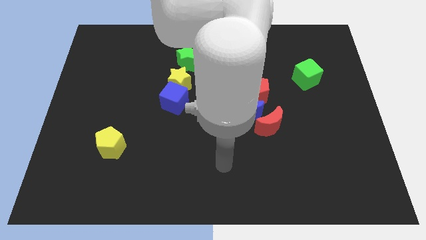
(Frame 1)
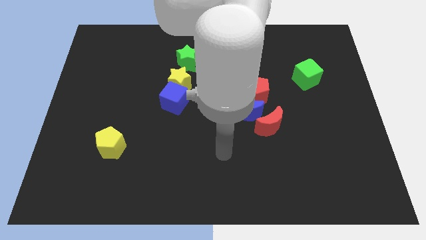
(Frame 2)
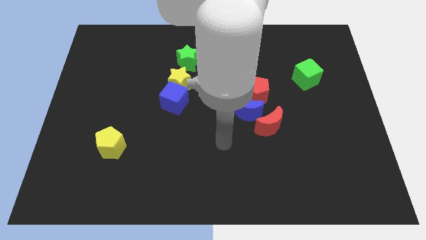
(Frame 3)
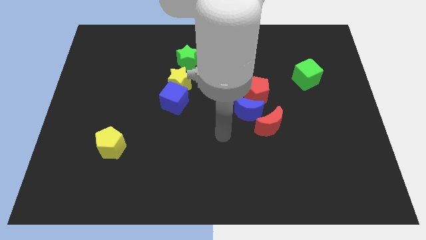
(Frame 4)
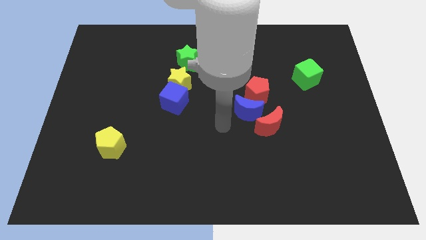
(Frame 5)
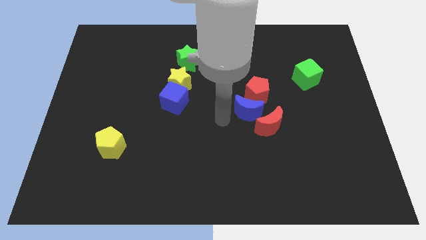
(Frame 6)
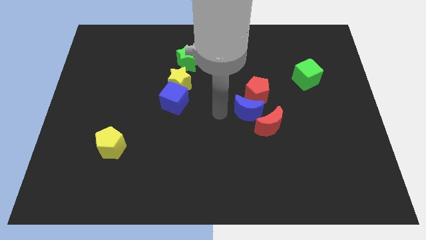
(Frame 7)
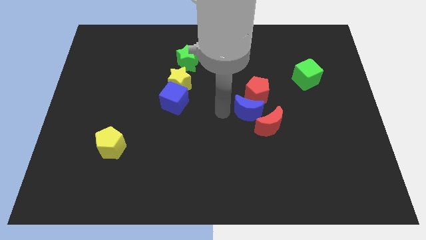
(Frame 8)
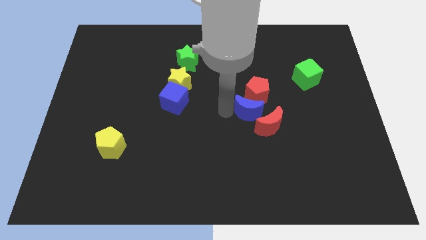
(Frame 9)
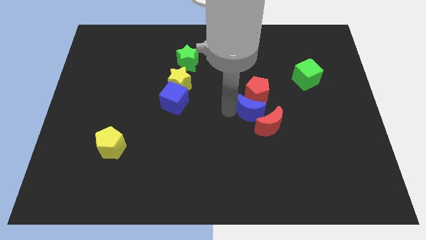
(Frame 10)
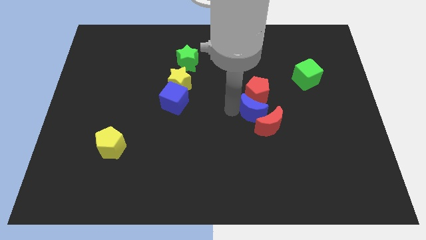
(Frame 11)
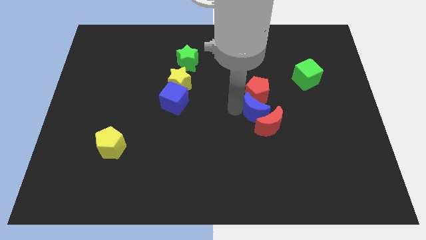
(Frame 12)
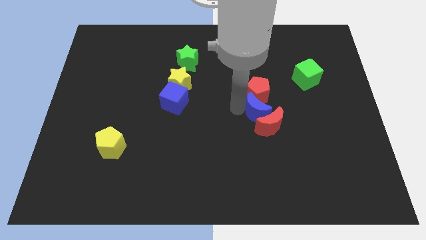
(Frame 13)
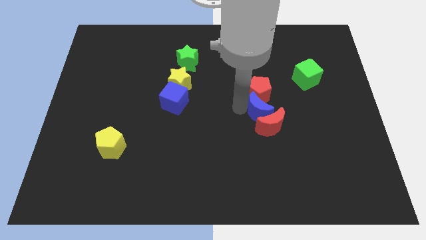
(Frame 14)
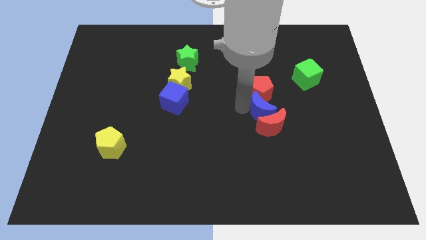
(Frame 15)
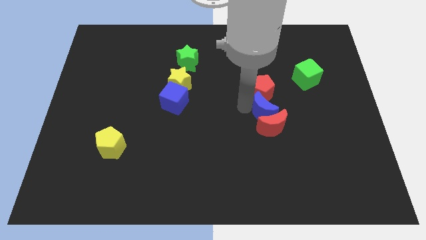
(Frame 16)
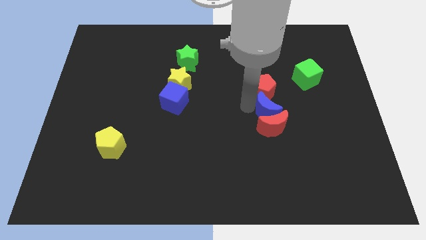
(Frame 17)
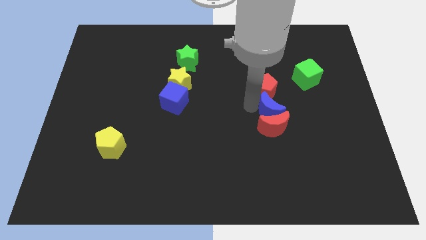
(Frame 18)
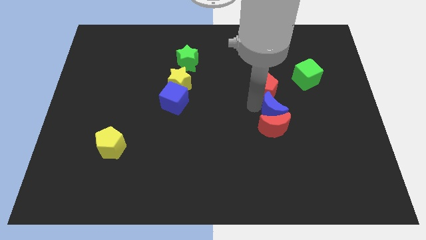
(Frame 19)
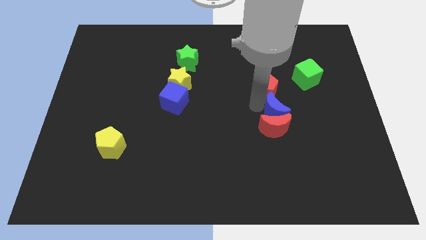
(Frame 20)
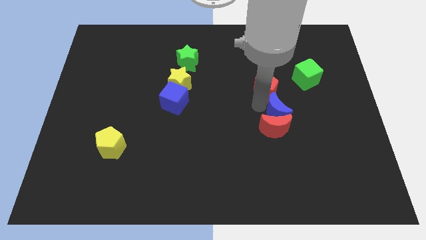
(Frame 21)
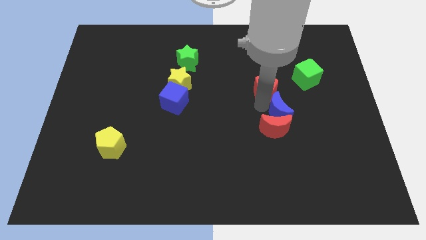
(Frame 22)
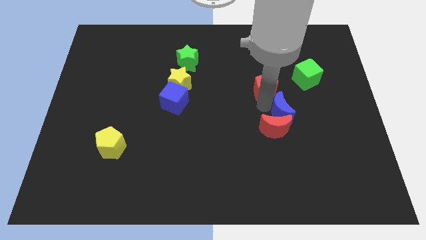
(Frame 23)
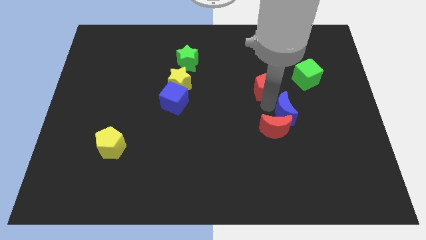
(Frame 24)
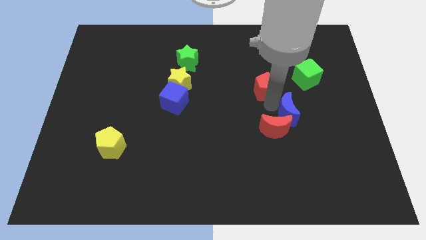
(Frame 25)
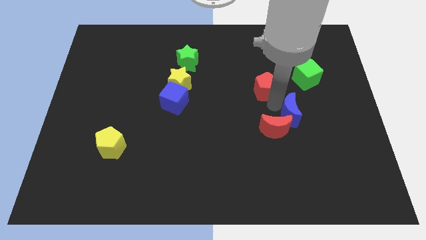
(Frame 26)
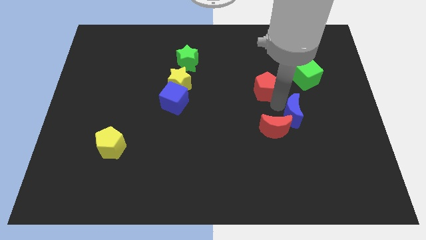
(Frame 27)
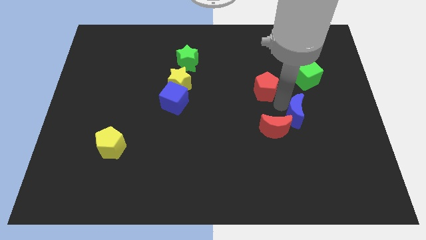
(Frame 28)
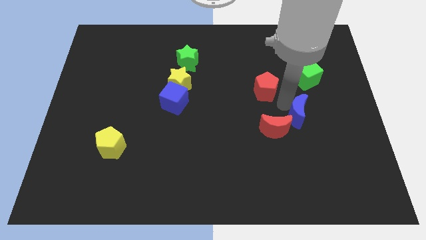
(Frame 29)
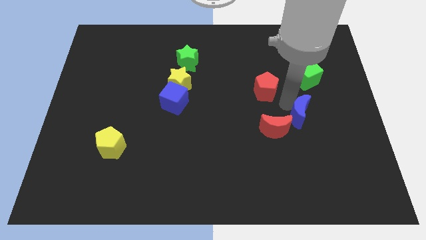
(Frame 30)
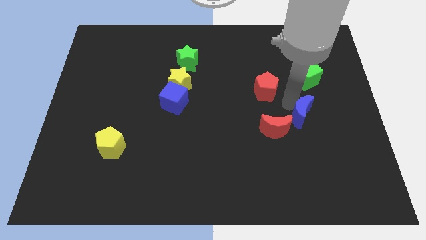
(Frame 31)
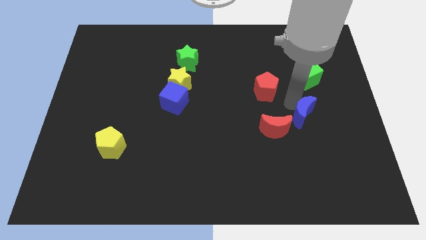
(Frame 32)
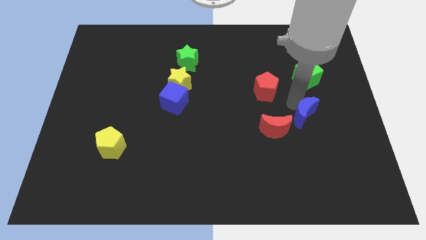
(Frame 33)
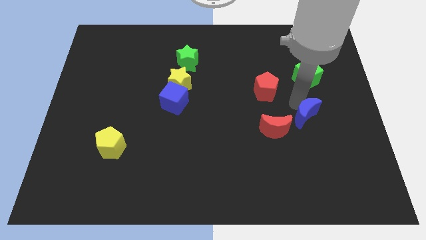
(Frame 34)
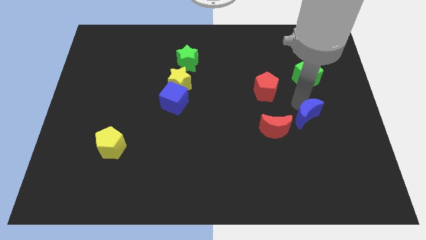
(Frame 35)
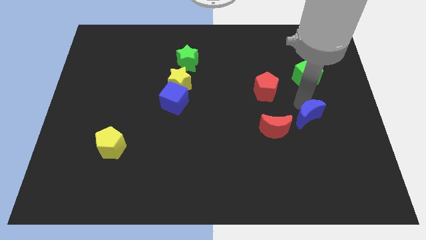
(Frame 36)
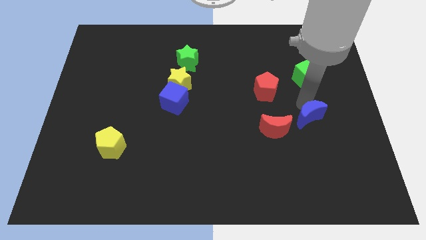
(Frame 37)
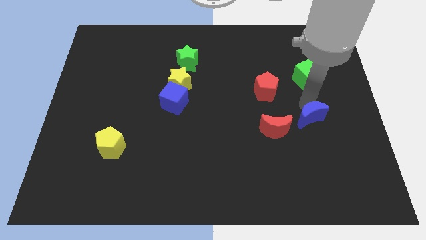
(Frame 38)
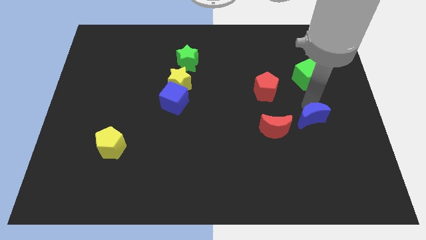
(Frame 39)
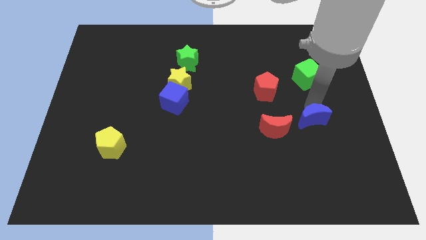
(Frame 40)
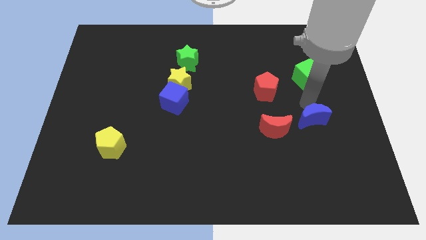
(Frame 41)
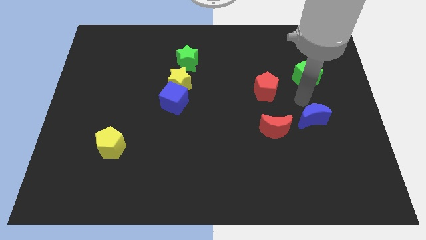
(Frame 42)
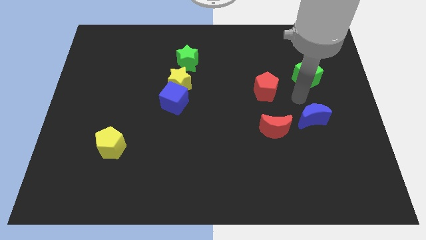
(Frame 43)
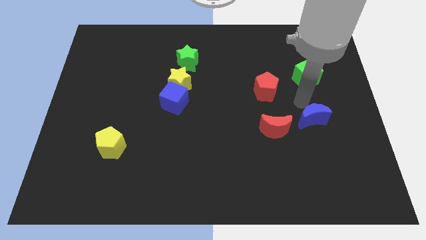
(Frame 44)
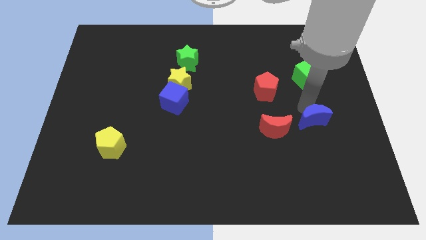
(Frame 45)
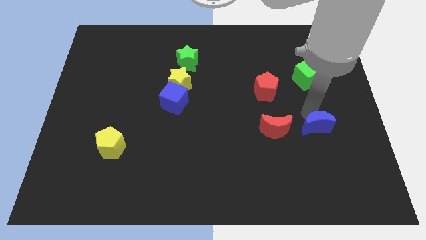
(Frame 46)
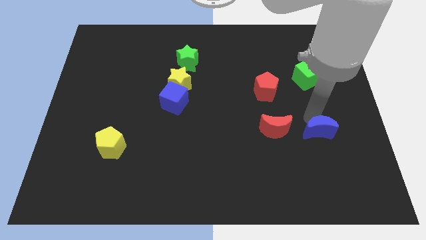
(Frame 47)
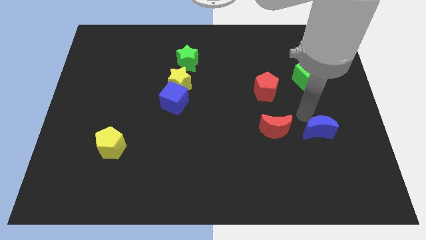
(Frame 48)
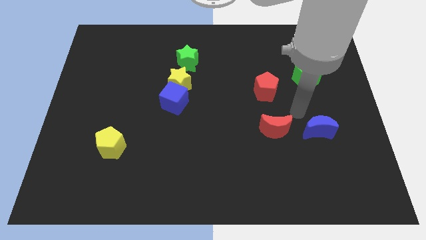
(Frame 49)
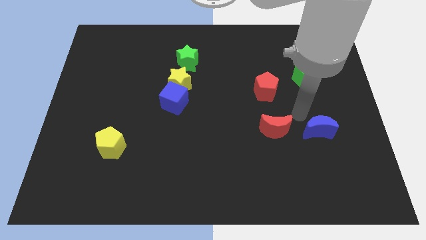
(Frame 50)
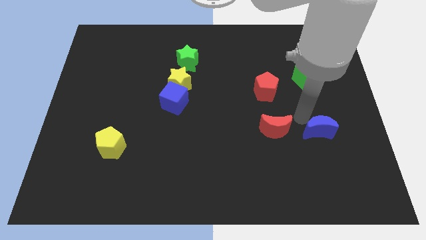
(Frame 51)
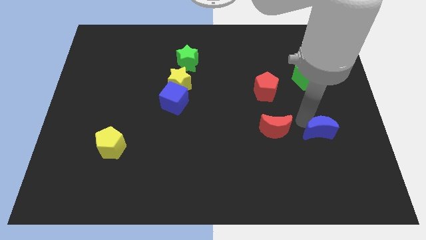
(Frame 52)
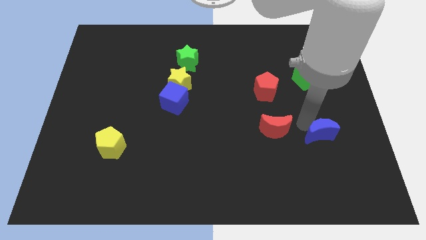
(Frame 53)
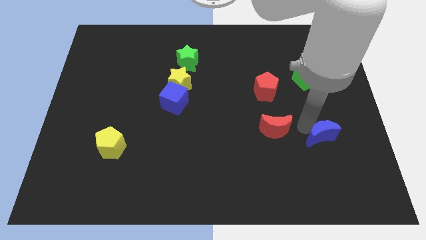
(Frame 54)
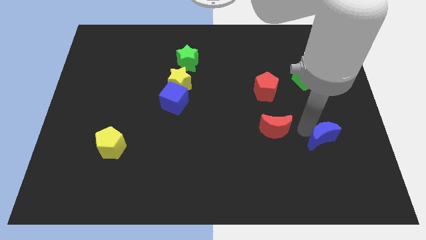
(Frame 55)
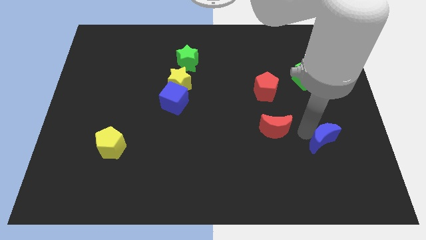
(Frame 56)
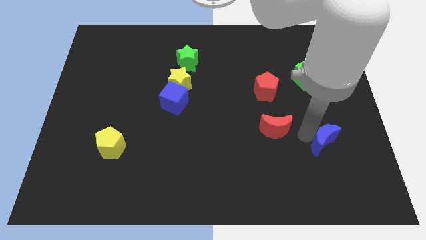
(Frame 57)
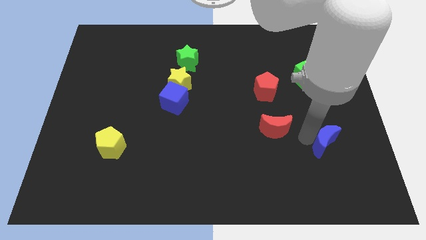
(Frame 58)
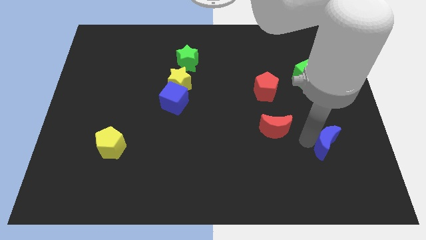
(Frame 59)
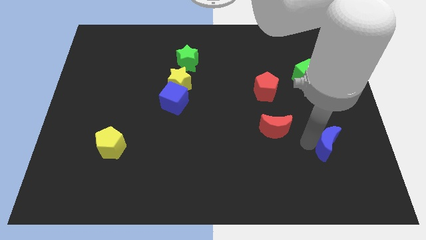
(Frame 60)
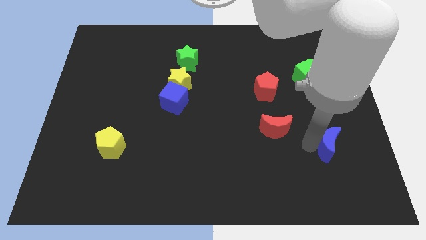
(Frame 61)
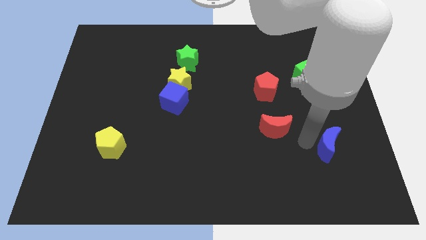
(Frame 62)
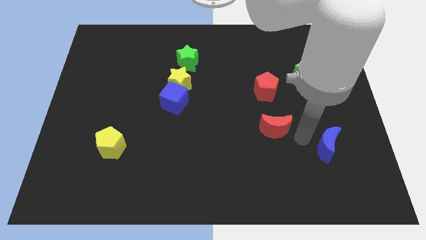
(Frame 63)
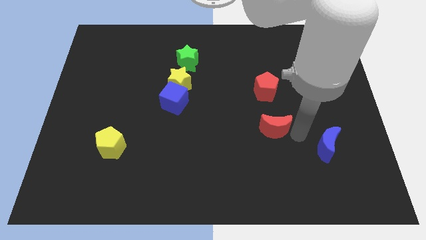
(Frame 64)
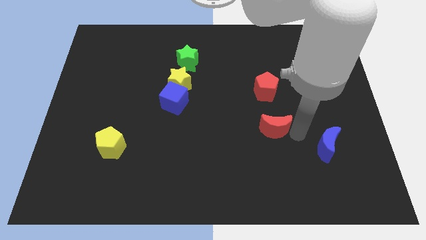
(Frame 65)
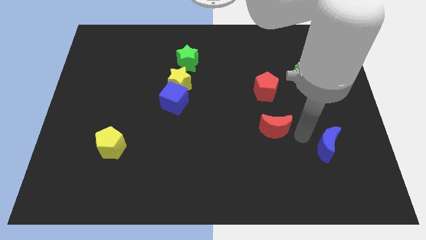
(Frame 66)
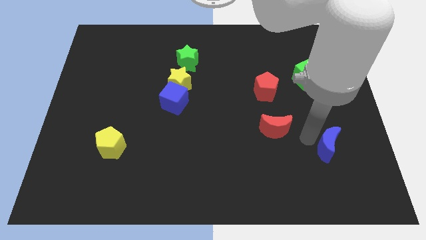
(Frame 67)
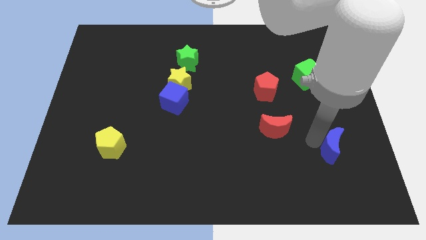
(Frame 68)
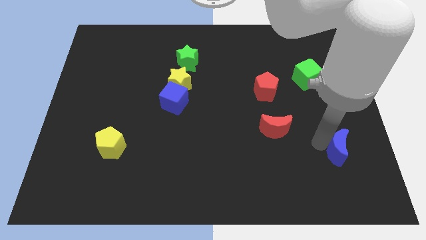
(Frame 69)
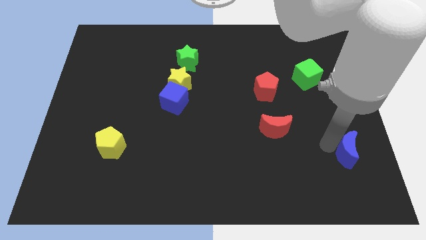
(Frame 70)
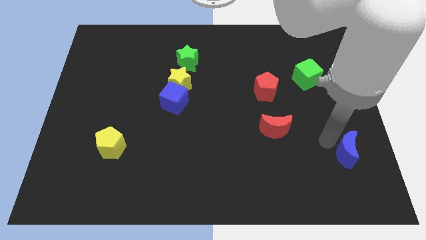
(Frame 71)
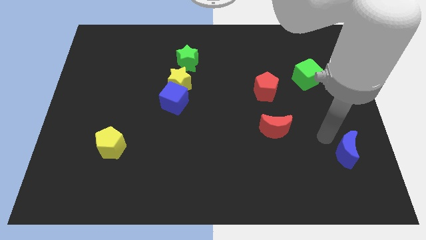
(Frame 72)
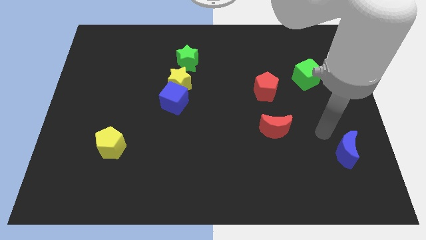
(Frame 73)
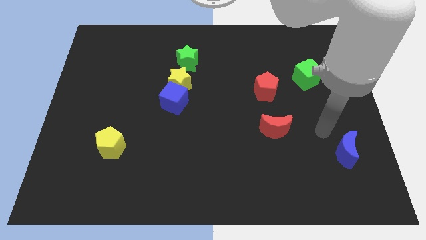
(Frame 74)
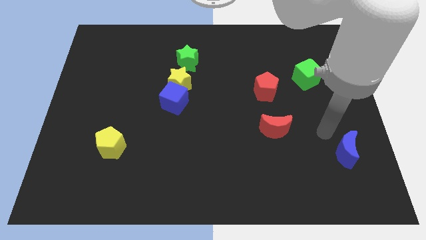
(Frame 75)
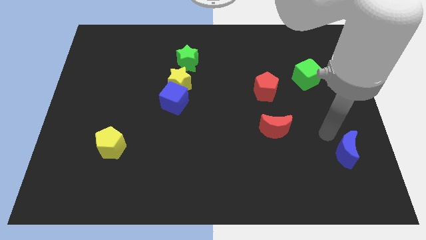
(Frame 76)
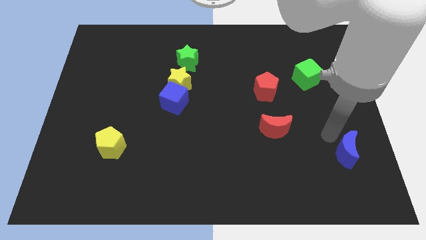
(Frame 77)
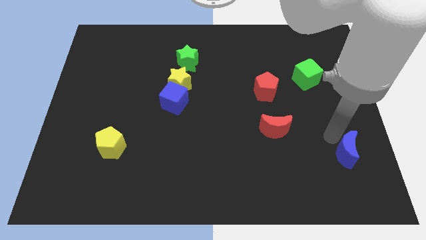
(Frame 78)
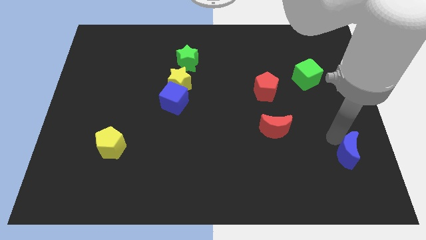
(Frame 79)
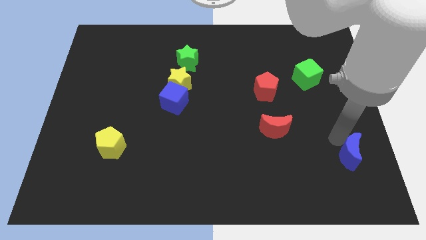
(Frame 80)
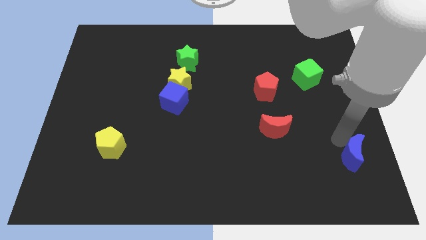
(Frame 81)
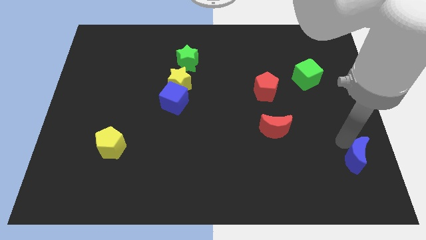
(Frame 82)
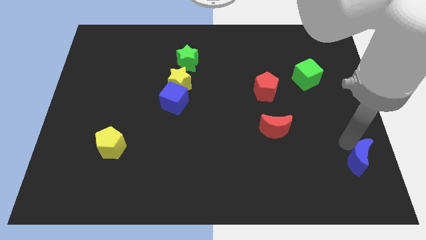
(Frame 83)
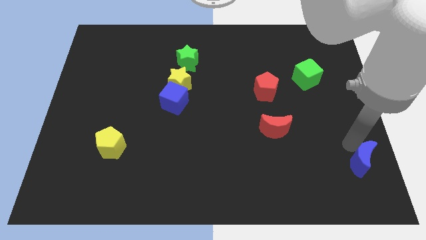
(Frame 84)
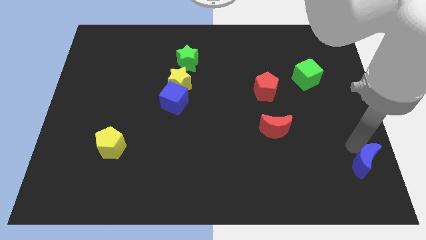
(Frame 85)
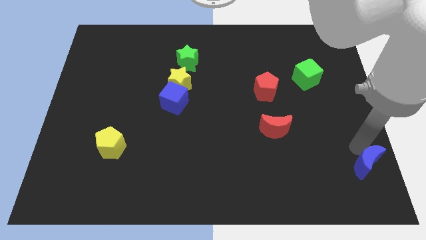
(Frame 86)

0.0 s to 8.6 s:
move the blue moon to the bottom right corner
